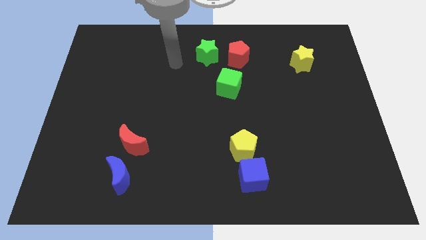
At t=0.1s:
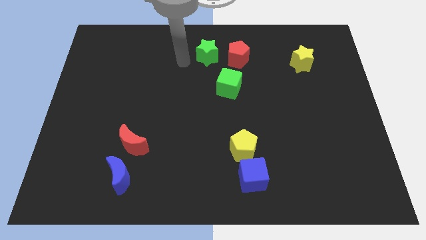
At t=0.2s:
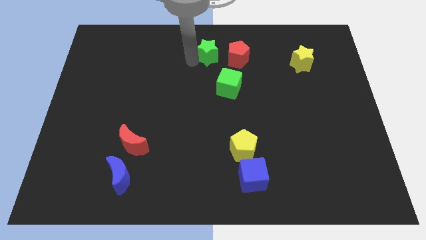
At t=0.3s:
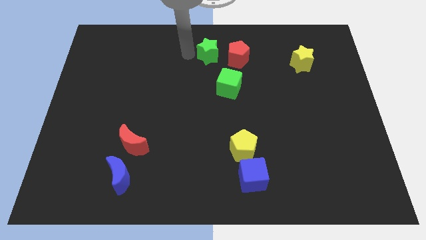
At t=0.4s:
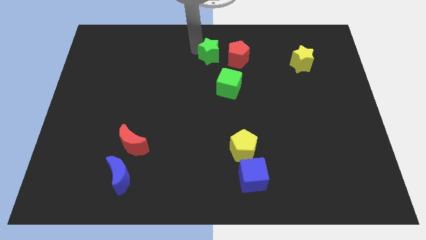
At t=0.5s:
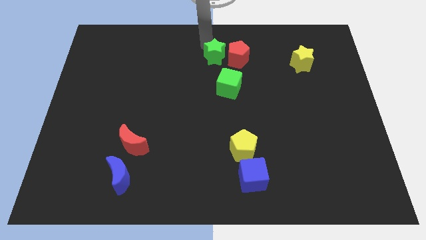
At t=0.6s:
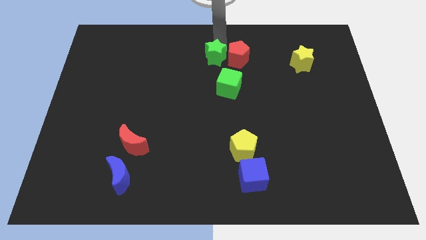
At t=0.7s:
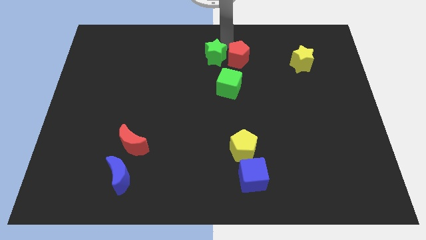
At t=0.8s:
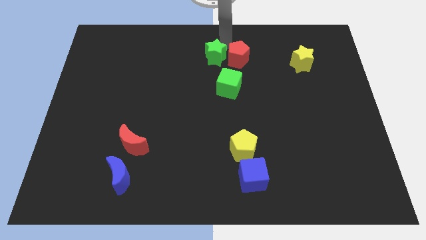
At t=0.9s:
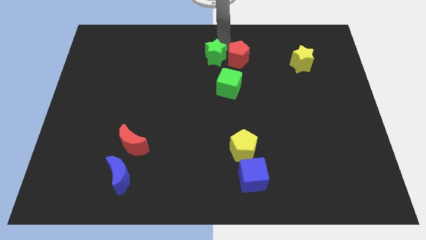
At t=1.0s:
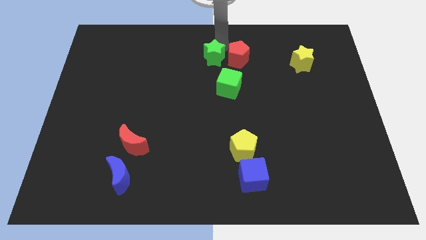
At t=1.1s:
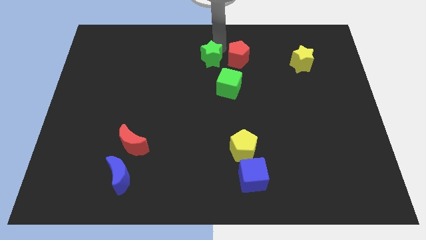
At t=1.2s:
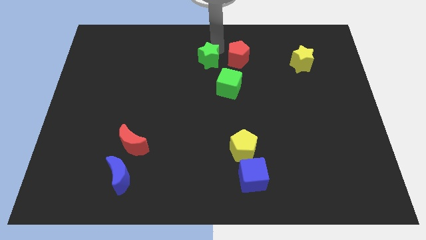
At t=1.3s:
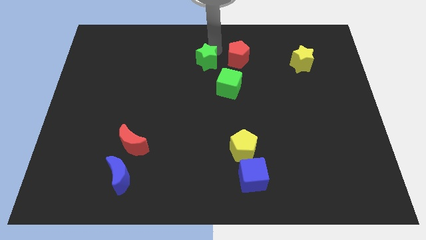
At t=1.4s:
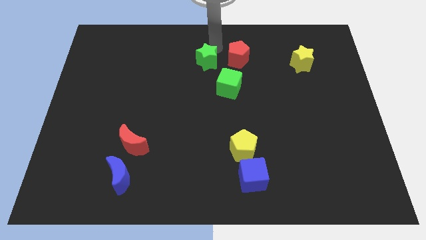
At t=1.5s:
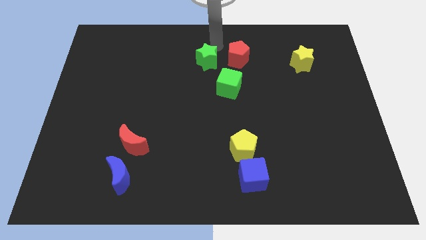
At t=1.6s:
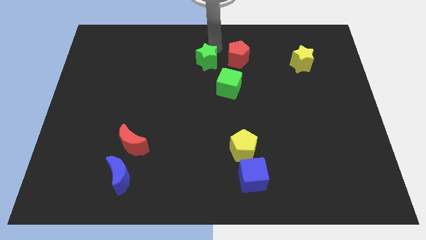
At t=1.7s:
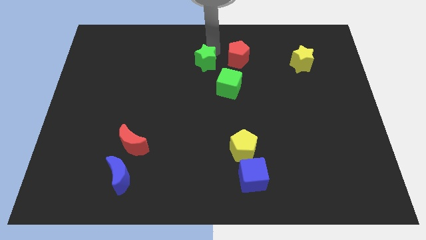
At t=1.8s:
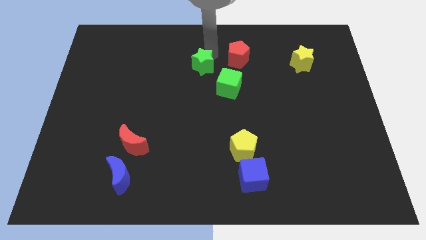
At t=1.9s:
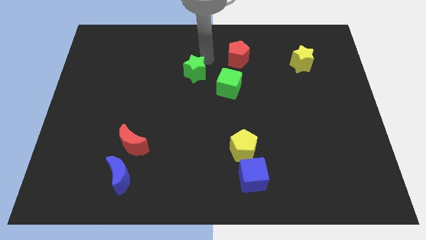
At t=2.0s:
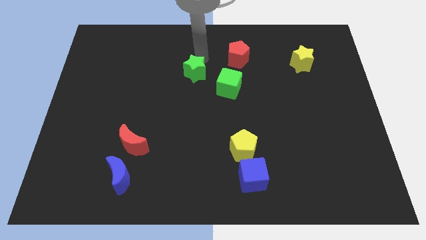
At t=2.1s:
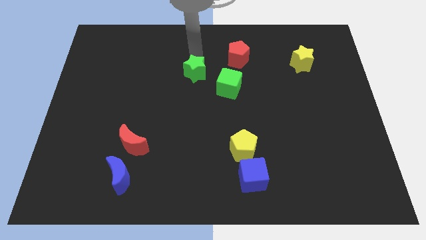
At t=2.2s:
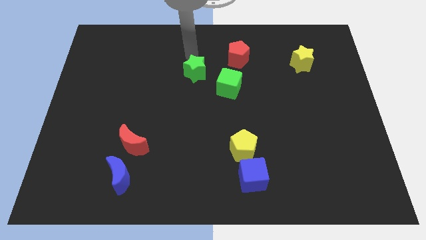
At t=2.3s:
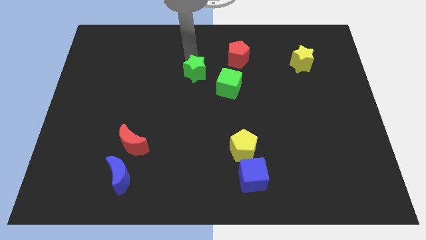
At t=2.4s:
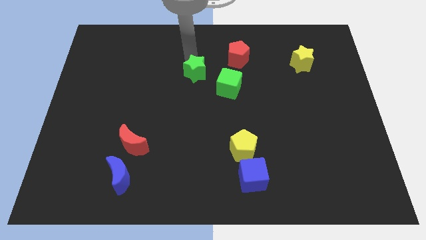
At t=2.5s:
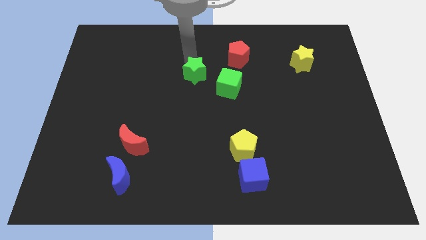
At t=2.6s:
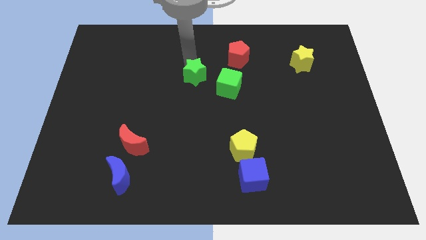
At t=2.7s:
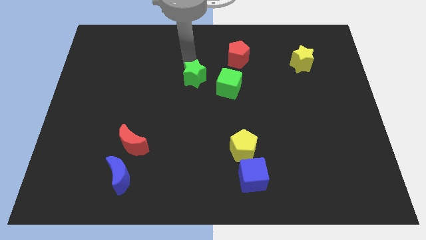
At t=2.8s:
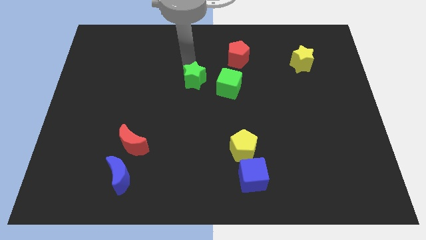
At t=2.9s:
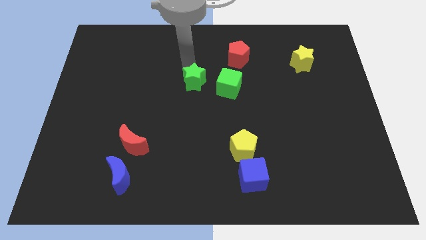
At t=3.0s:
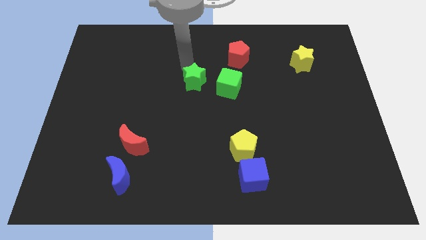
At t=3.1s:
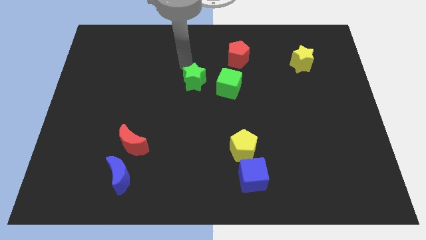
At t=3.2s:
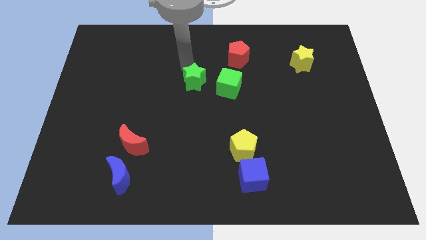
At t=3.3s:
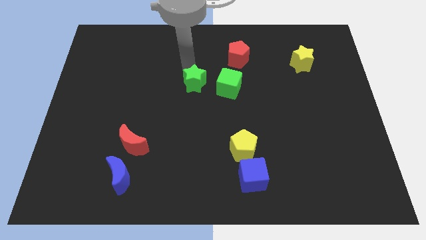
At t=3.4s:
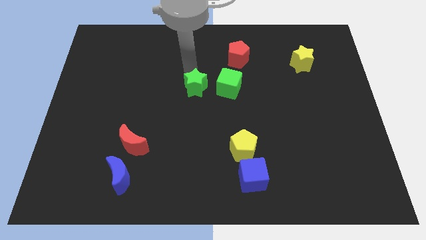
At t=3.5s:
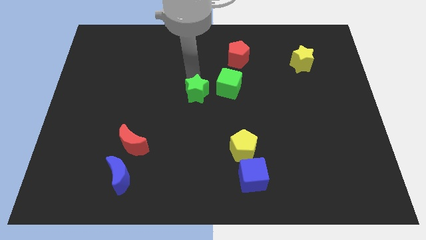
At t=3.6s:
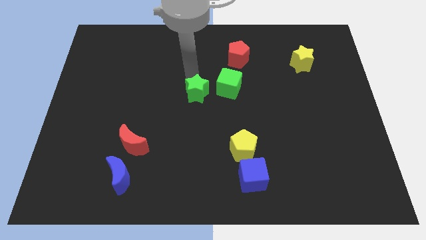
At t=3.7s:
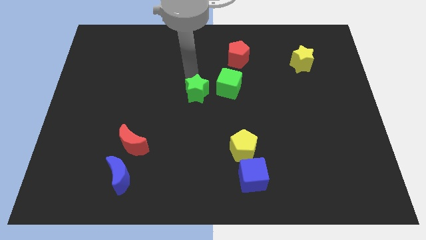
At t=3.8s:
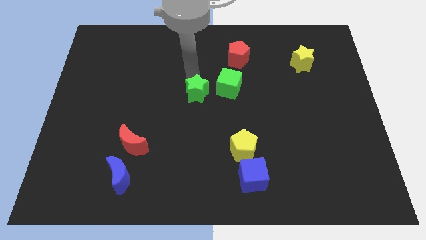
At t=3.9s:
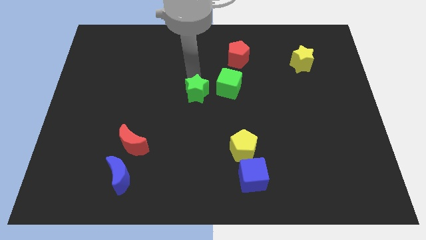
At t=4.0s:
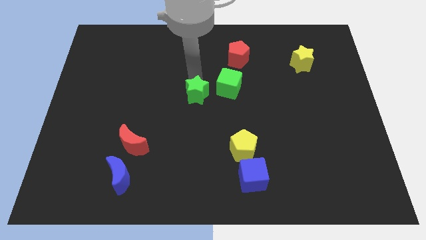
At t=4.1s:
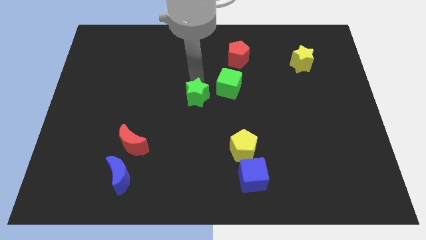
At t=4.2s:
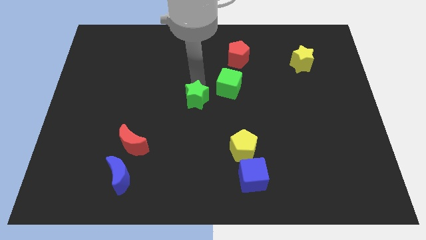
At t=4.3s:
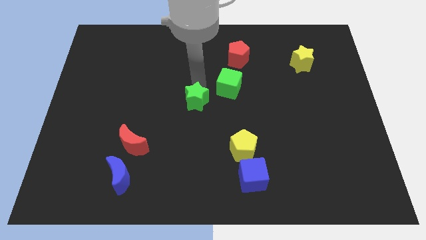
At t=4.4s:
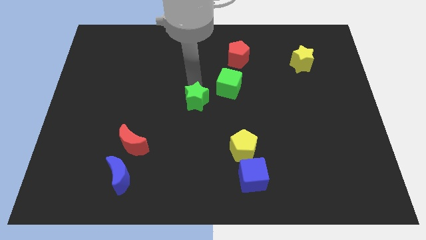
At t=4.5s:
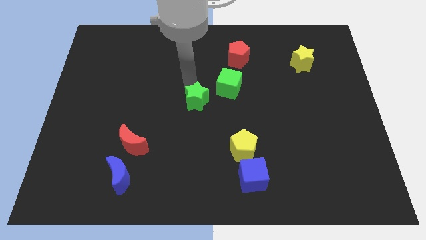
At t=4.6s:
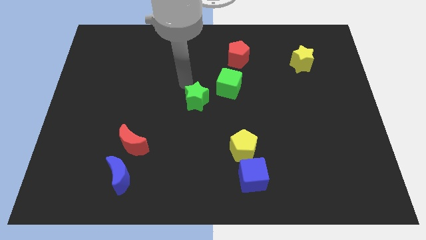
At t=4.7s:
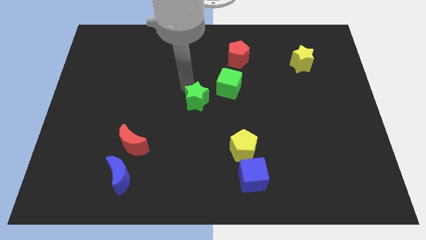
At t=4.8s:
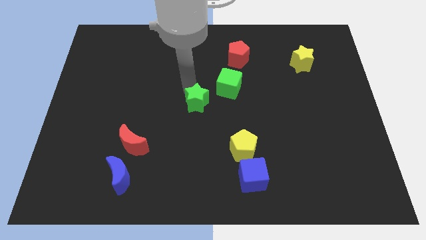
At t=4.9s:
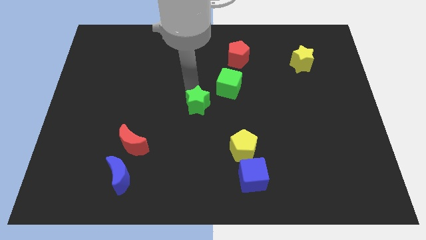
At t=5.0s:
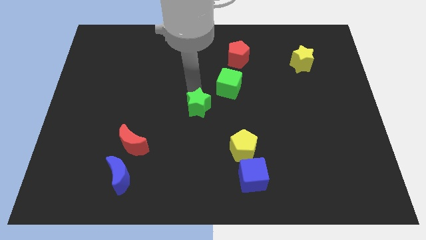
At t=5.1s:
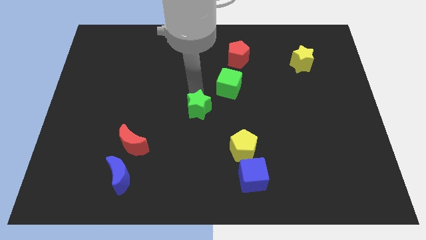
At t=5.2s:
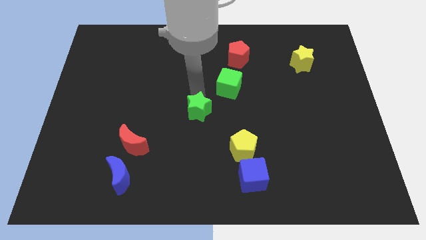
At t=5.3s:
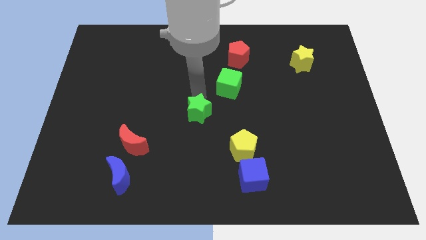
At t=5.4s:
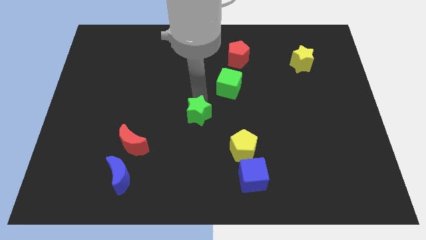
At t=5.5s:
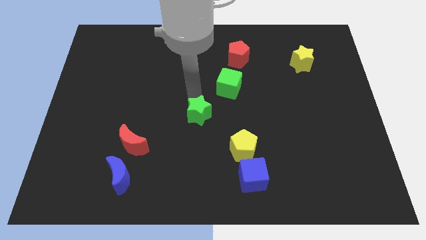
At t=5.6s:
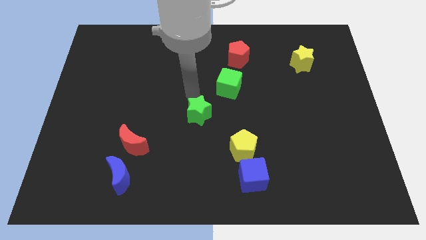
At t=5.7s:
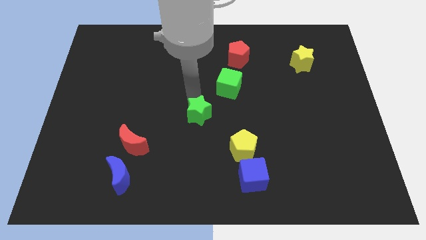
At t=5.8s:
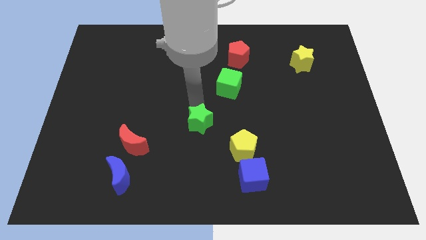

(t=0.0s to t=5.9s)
slide the green star downwards

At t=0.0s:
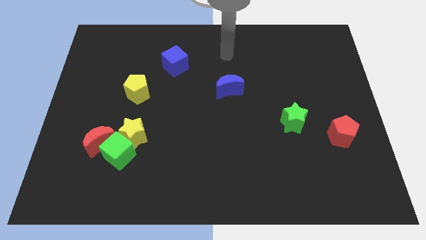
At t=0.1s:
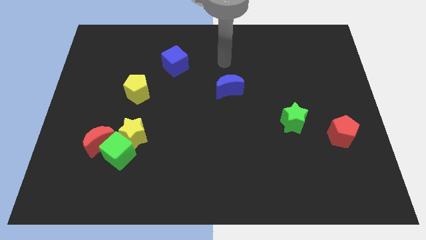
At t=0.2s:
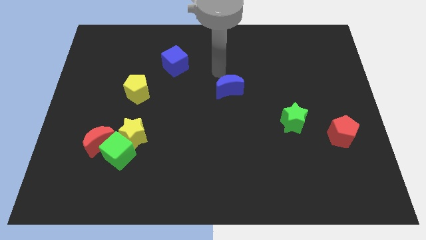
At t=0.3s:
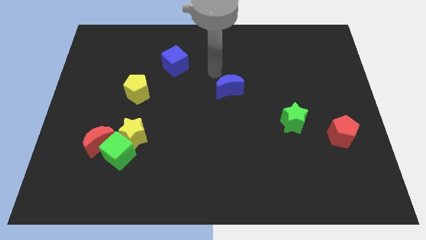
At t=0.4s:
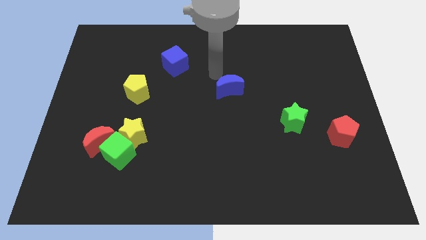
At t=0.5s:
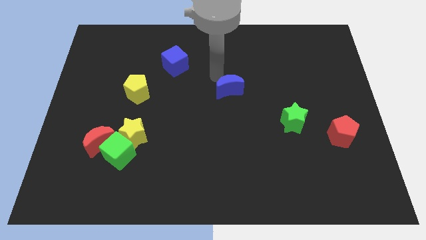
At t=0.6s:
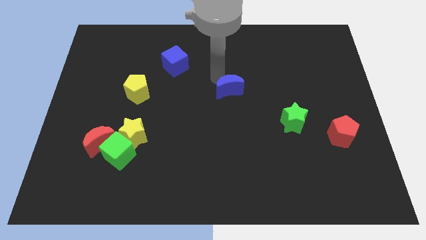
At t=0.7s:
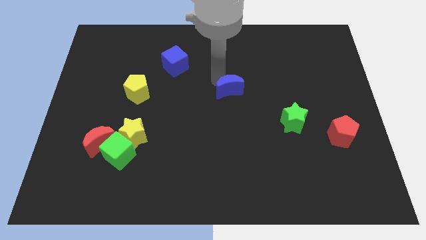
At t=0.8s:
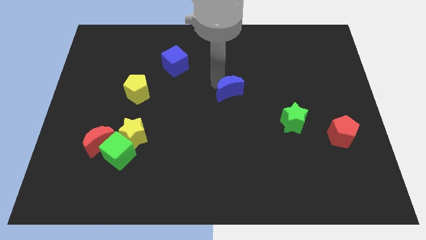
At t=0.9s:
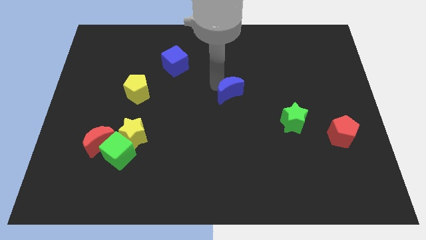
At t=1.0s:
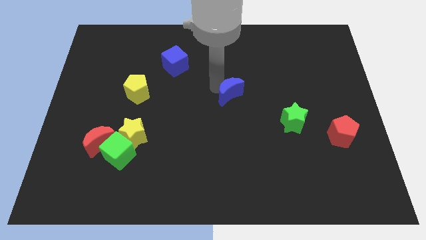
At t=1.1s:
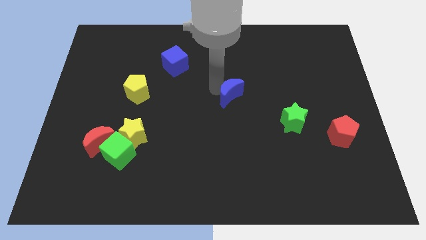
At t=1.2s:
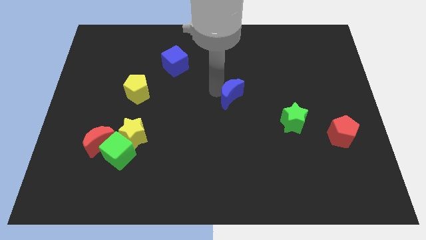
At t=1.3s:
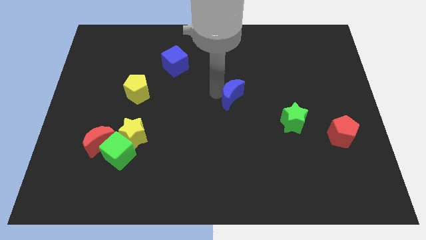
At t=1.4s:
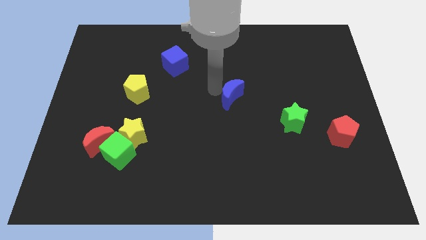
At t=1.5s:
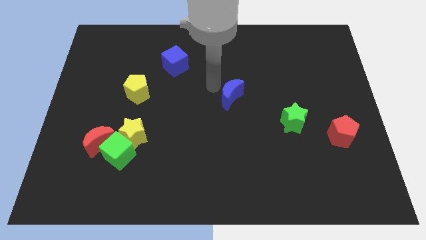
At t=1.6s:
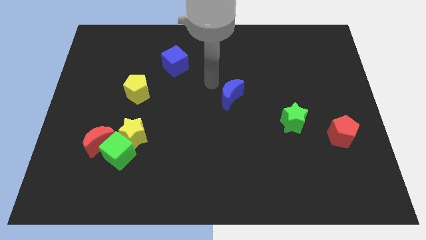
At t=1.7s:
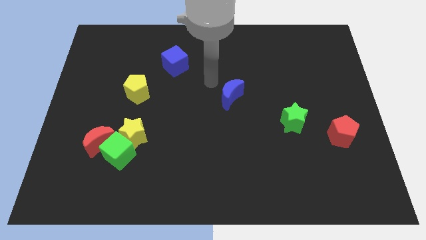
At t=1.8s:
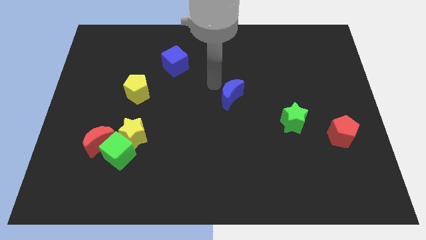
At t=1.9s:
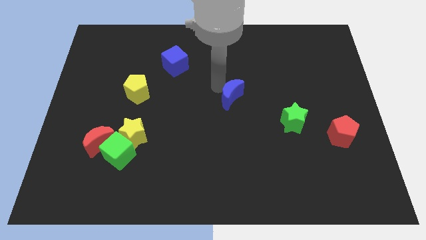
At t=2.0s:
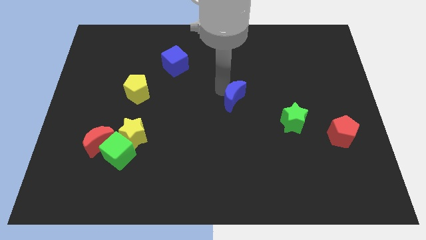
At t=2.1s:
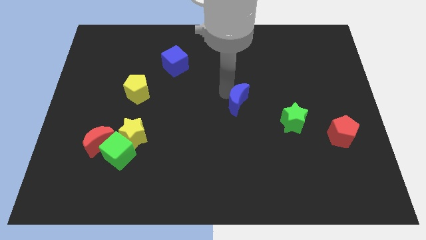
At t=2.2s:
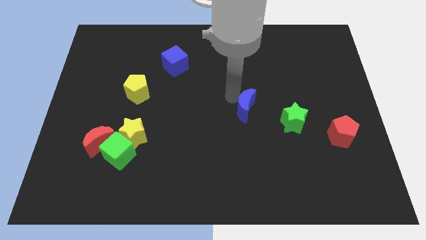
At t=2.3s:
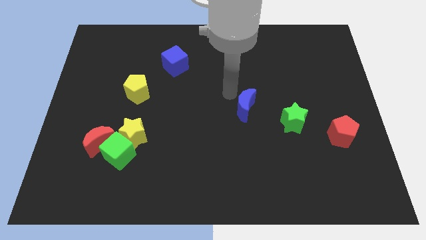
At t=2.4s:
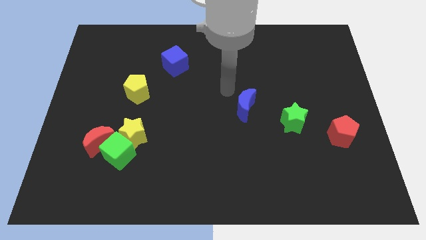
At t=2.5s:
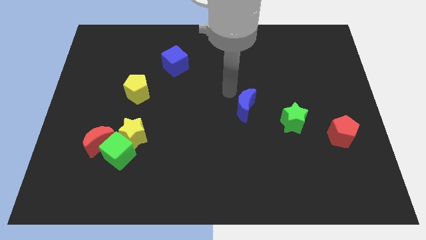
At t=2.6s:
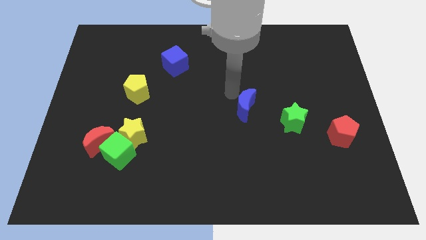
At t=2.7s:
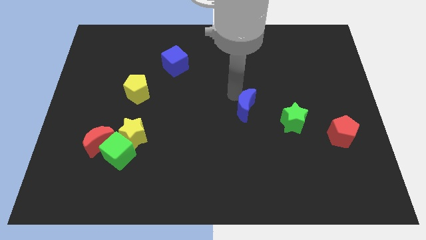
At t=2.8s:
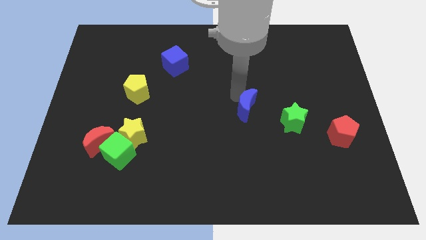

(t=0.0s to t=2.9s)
slightly move the blue moon downwards and to the right

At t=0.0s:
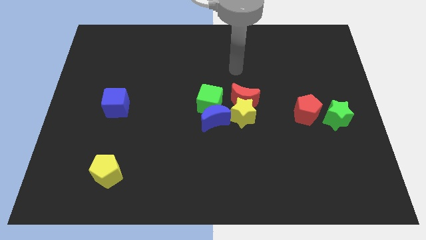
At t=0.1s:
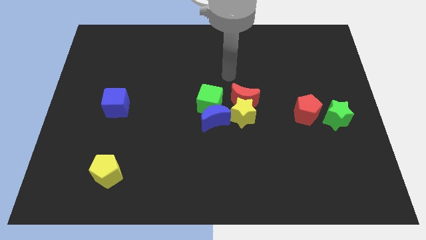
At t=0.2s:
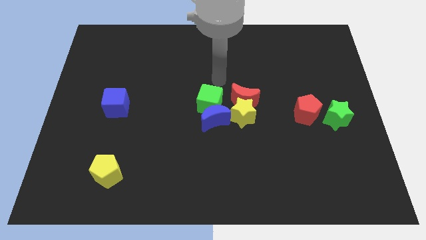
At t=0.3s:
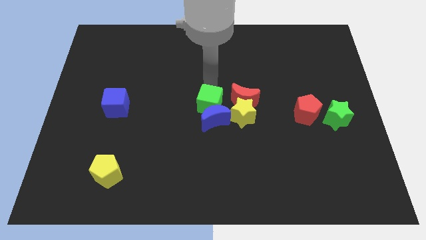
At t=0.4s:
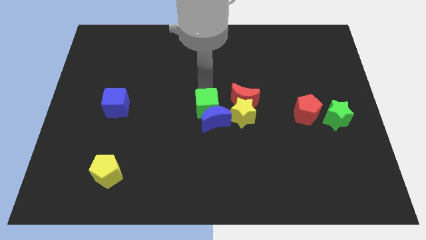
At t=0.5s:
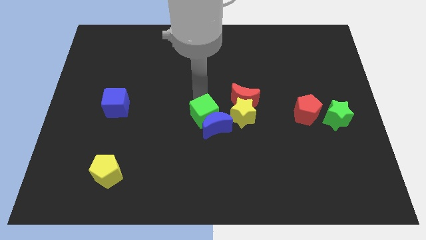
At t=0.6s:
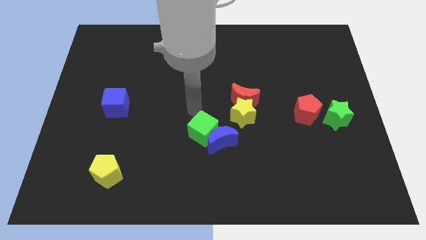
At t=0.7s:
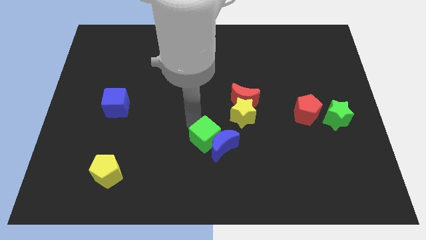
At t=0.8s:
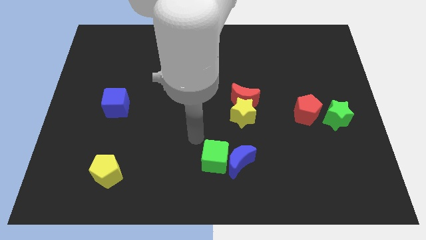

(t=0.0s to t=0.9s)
slide the blue moon slightly diagonally down and right
